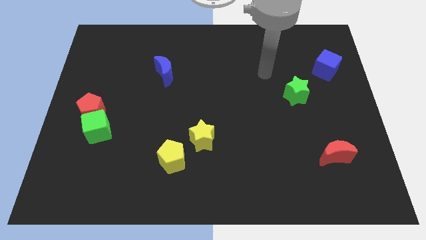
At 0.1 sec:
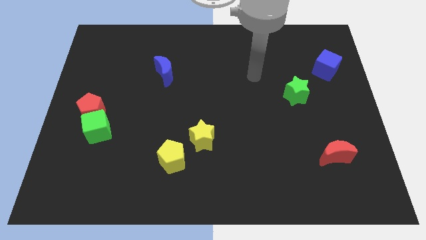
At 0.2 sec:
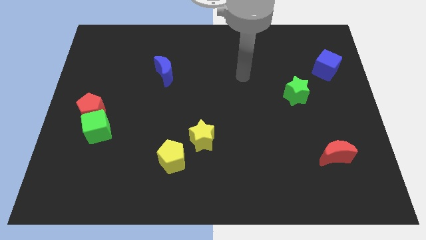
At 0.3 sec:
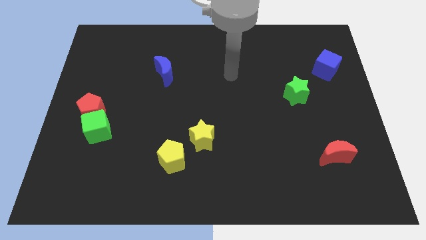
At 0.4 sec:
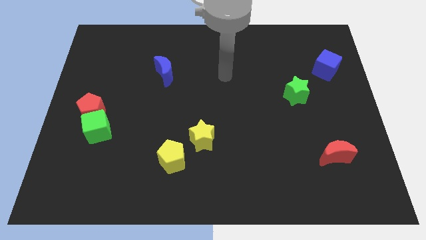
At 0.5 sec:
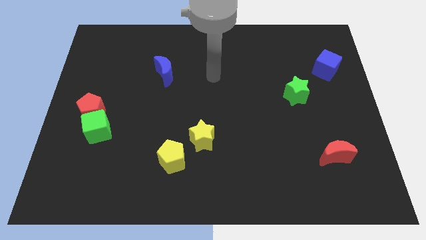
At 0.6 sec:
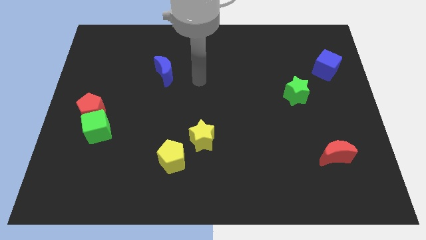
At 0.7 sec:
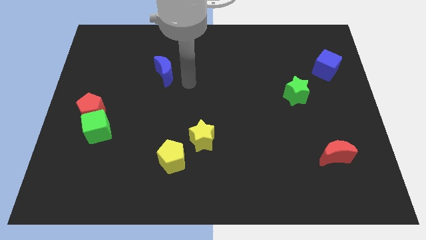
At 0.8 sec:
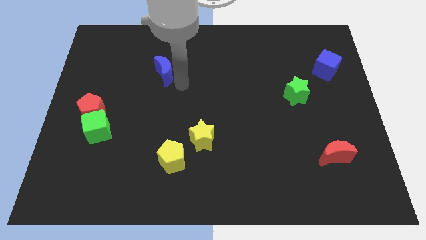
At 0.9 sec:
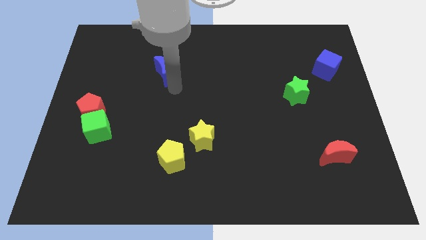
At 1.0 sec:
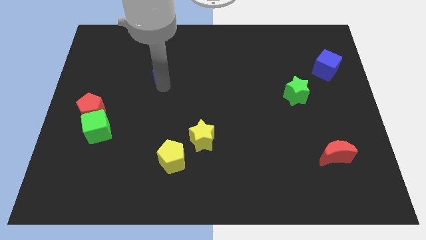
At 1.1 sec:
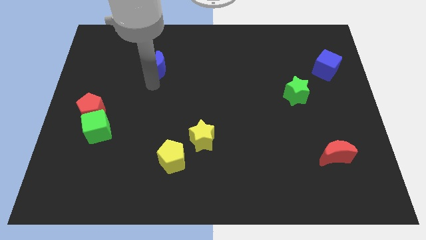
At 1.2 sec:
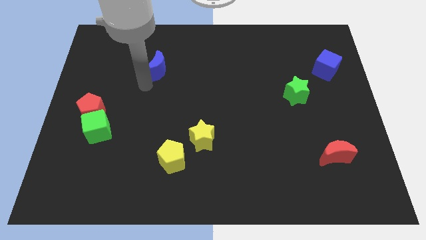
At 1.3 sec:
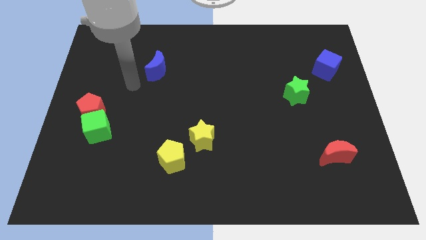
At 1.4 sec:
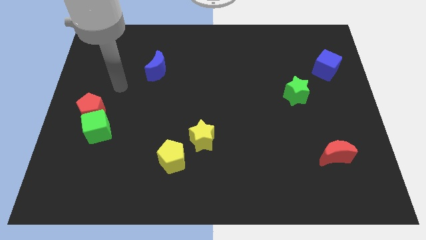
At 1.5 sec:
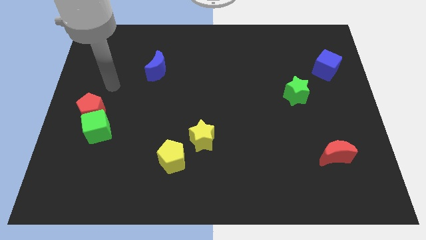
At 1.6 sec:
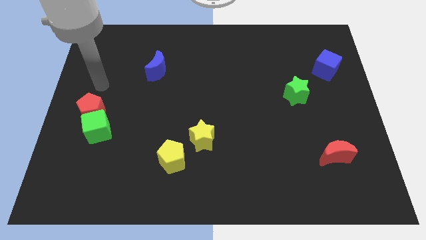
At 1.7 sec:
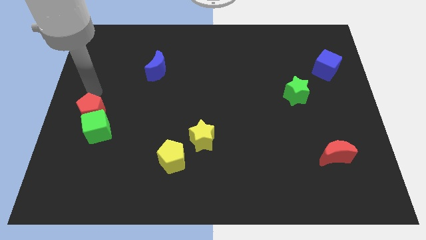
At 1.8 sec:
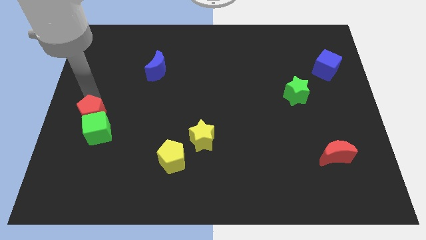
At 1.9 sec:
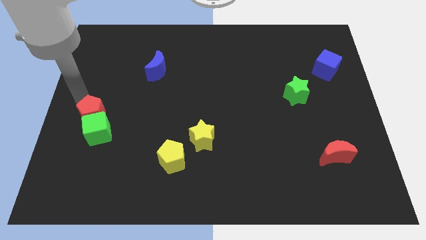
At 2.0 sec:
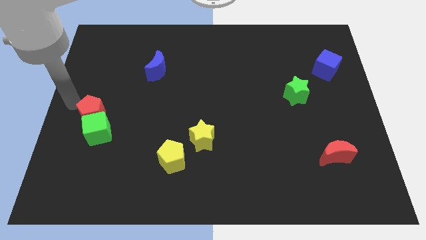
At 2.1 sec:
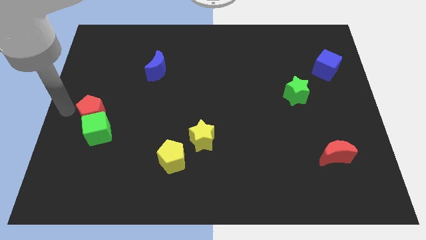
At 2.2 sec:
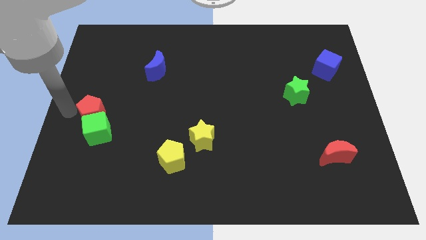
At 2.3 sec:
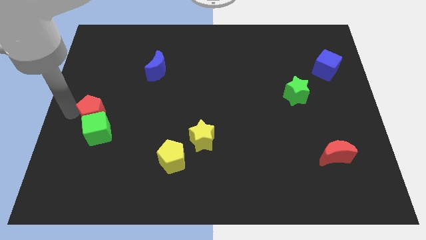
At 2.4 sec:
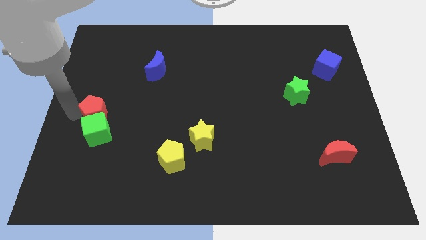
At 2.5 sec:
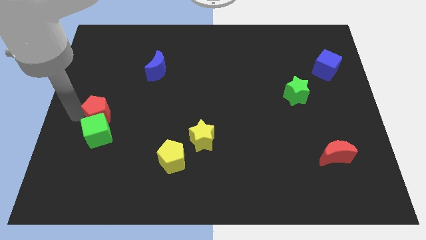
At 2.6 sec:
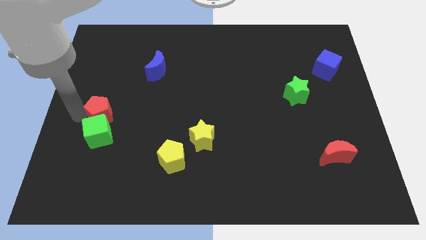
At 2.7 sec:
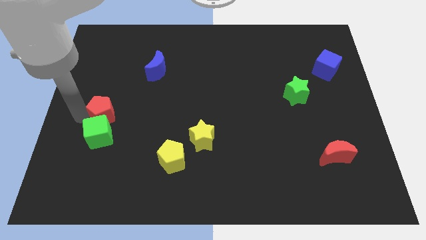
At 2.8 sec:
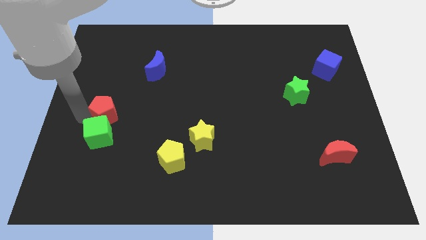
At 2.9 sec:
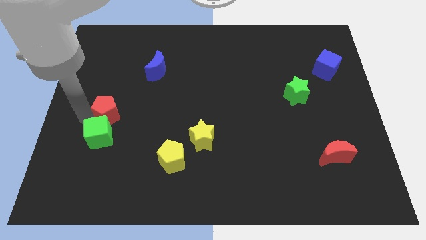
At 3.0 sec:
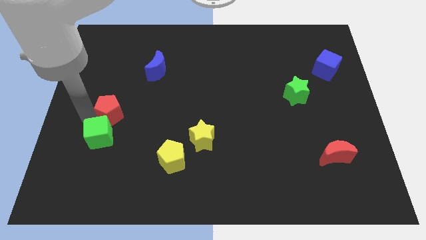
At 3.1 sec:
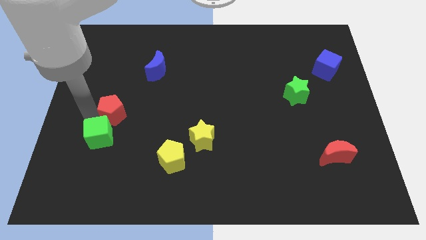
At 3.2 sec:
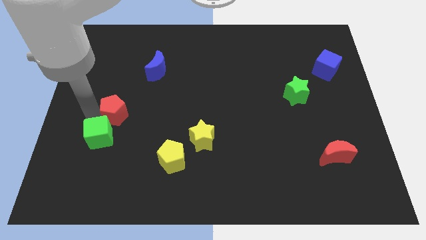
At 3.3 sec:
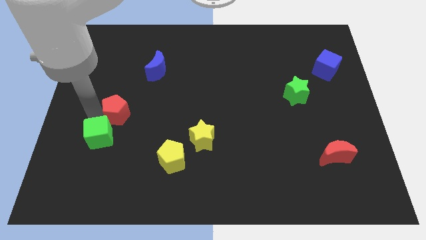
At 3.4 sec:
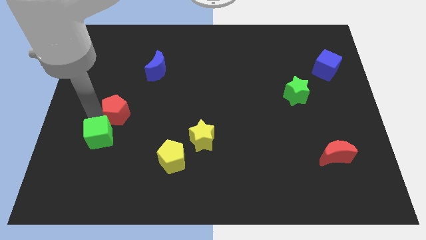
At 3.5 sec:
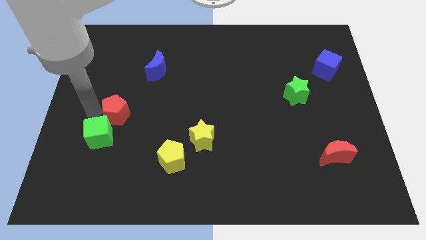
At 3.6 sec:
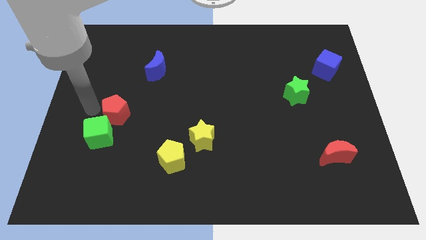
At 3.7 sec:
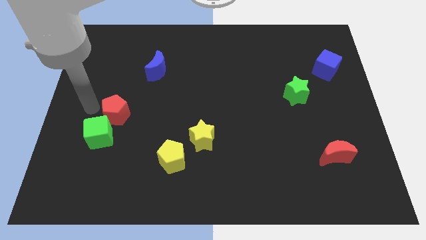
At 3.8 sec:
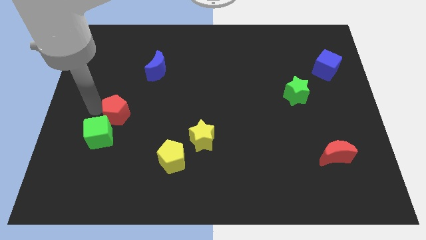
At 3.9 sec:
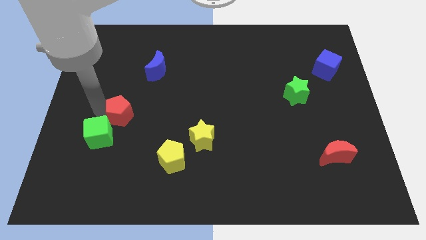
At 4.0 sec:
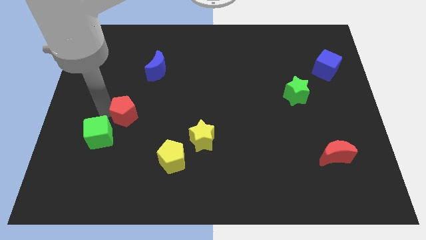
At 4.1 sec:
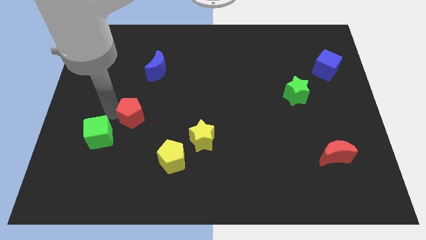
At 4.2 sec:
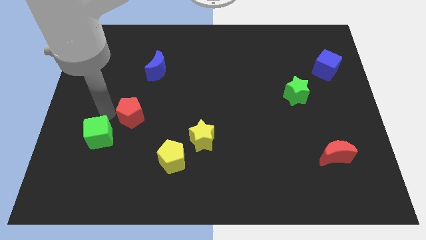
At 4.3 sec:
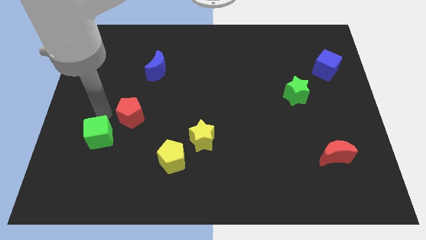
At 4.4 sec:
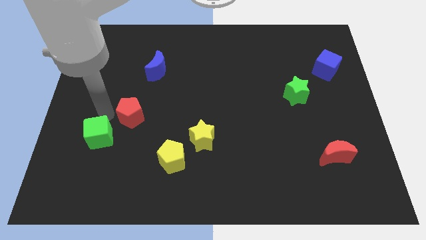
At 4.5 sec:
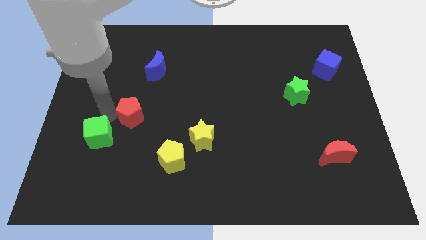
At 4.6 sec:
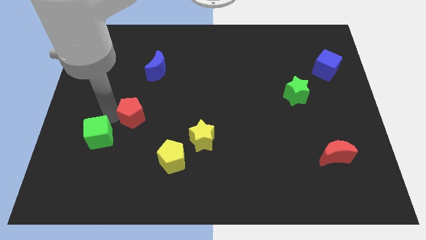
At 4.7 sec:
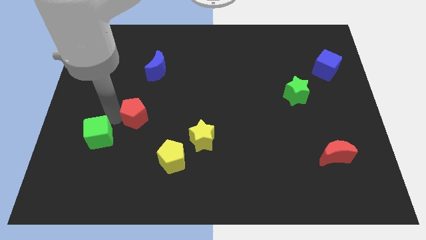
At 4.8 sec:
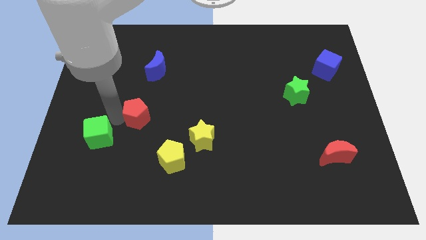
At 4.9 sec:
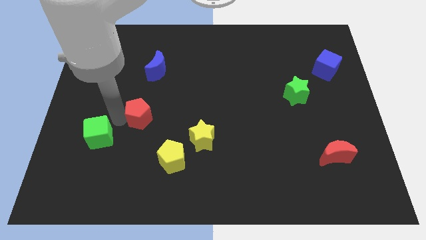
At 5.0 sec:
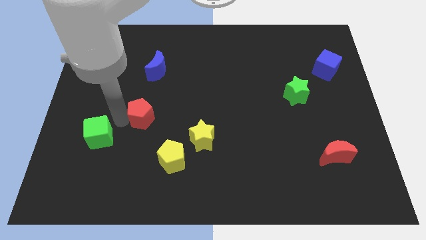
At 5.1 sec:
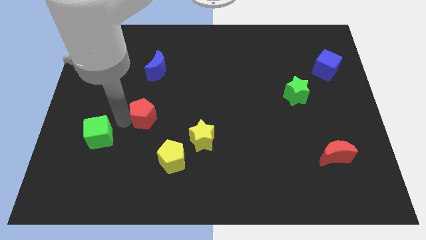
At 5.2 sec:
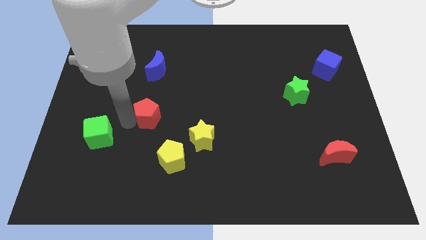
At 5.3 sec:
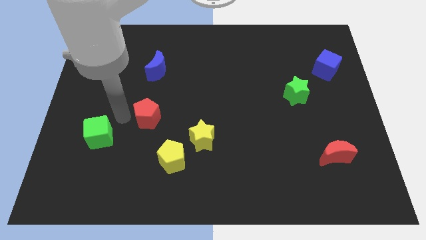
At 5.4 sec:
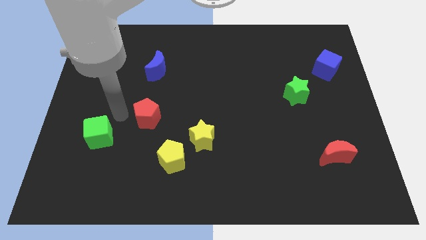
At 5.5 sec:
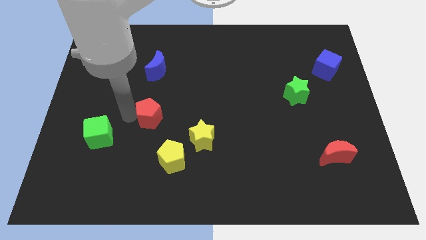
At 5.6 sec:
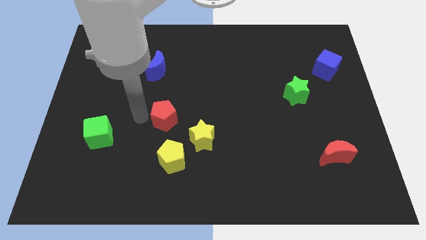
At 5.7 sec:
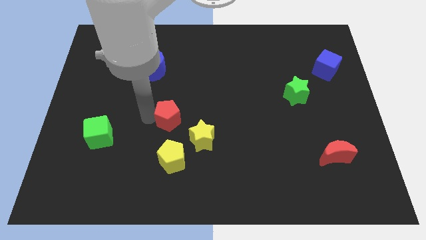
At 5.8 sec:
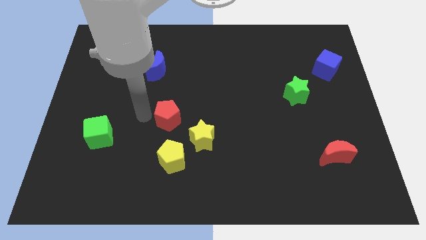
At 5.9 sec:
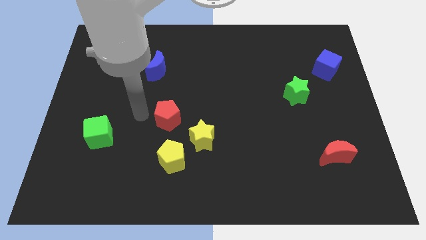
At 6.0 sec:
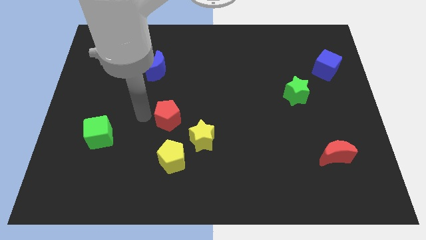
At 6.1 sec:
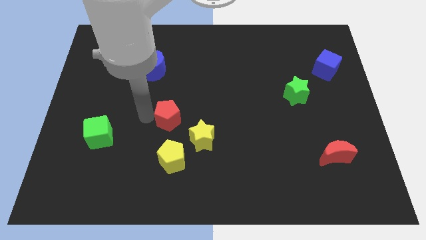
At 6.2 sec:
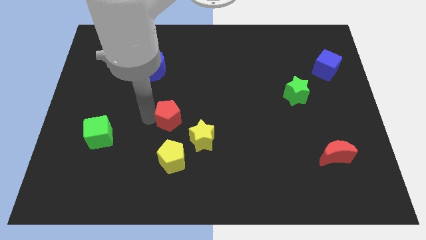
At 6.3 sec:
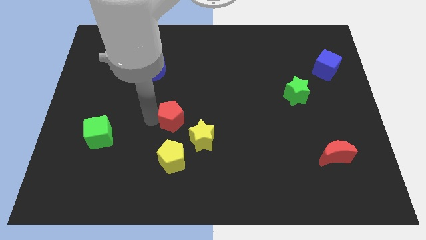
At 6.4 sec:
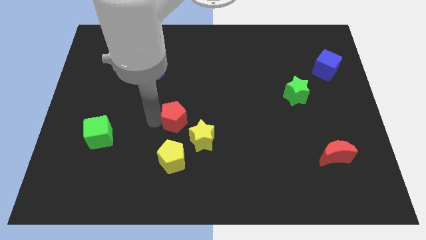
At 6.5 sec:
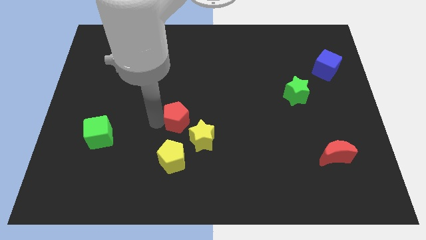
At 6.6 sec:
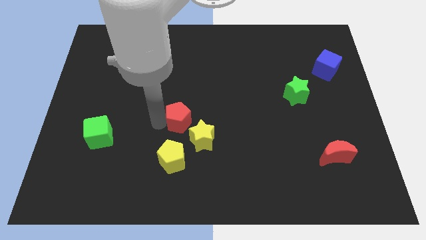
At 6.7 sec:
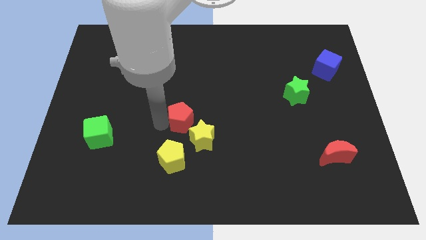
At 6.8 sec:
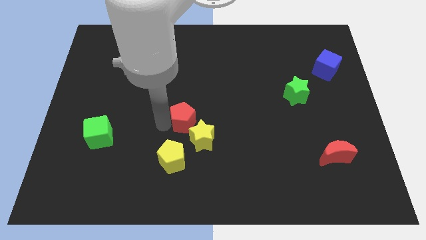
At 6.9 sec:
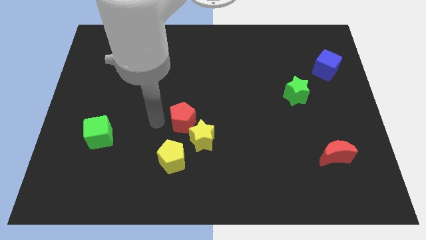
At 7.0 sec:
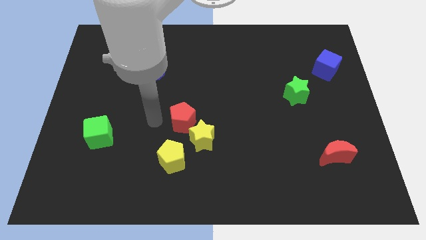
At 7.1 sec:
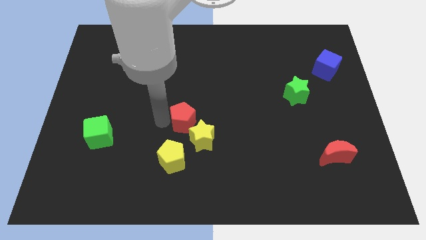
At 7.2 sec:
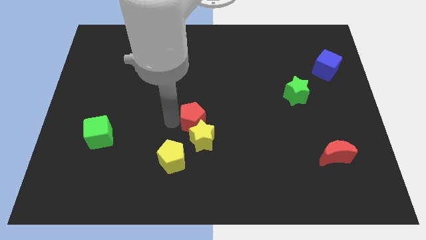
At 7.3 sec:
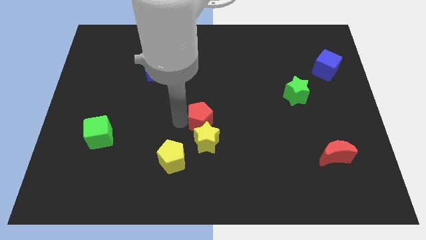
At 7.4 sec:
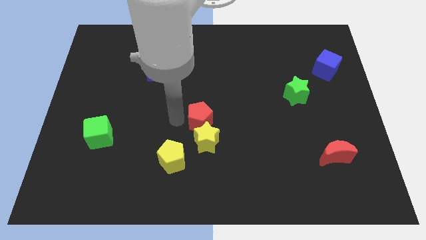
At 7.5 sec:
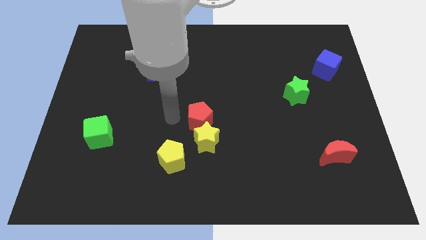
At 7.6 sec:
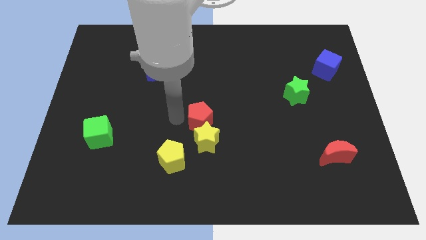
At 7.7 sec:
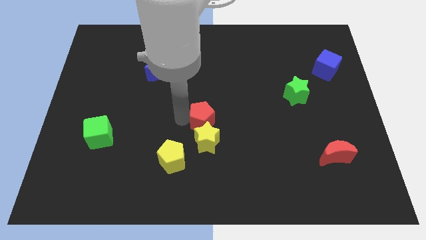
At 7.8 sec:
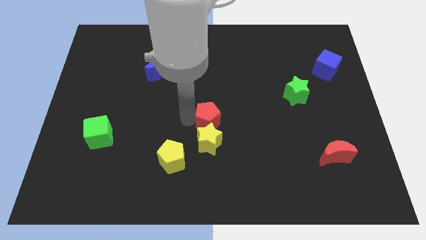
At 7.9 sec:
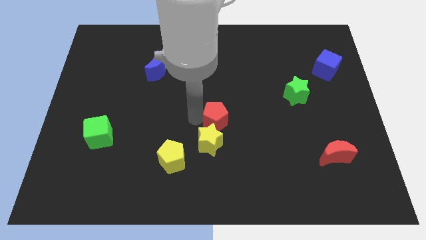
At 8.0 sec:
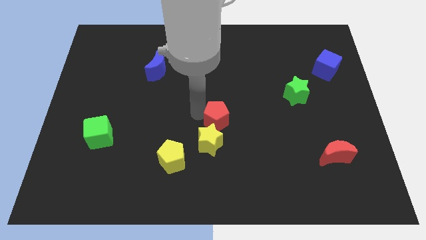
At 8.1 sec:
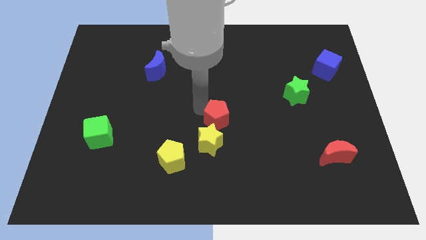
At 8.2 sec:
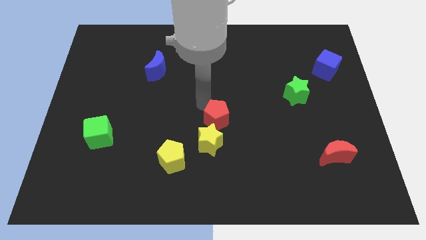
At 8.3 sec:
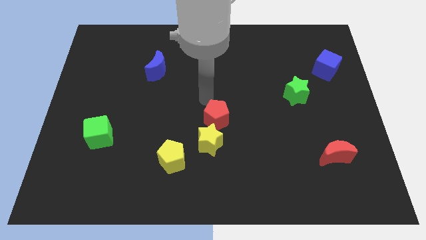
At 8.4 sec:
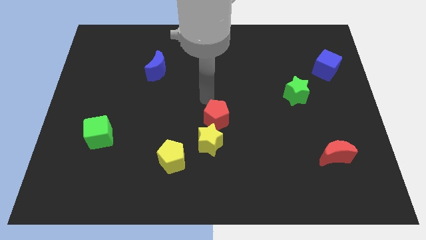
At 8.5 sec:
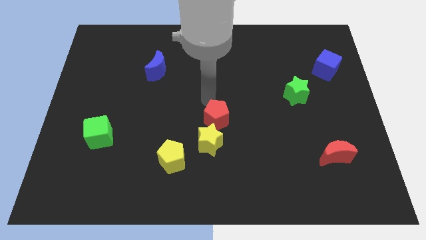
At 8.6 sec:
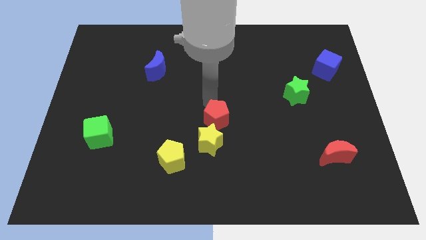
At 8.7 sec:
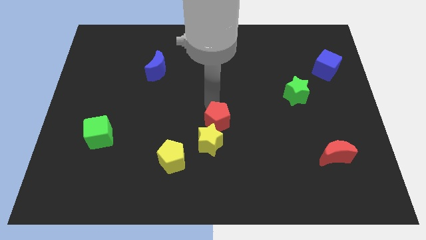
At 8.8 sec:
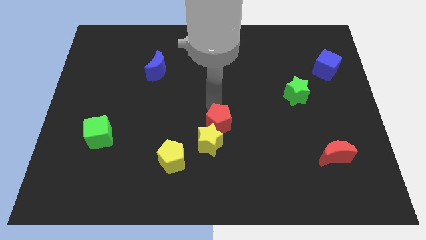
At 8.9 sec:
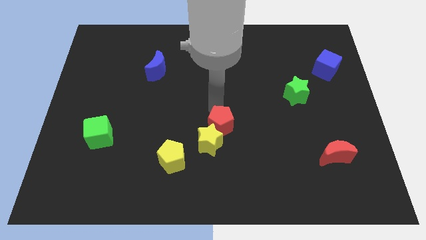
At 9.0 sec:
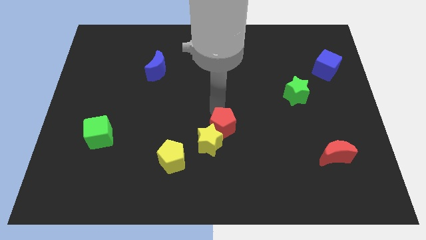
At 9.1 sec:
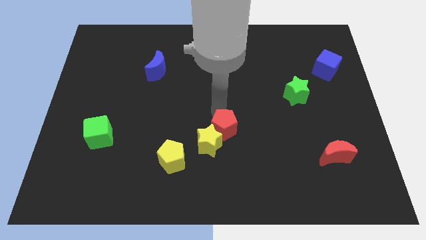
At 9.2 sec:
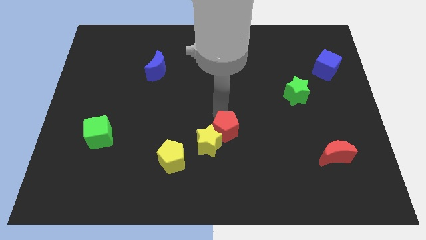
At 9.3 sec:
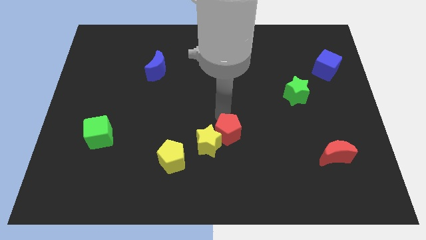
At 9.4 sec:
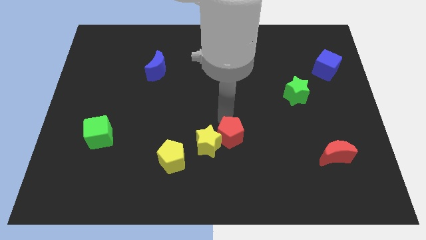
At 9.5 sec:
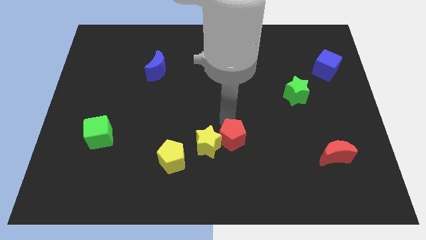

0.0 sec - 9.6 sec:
put the red pentagon diagonally down and to the right of the yellow star
